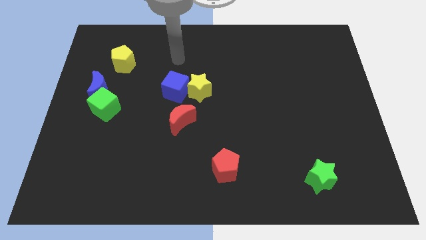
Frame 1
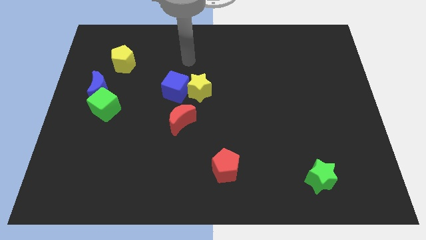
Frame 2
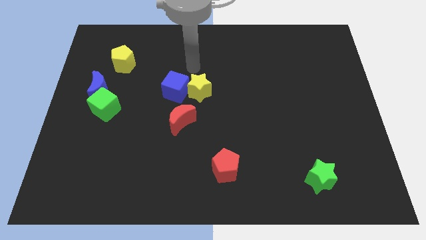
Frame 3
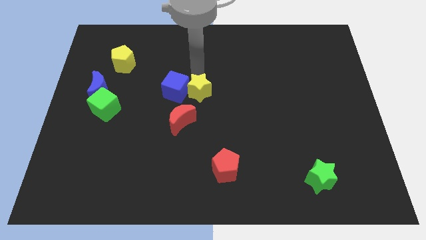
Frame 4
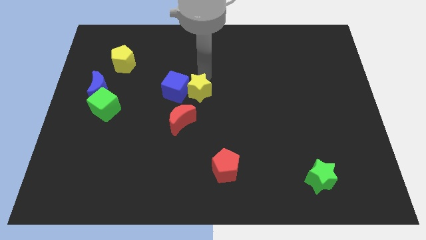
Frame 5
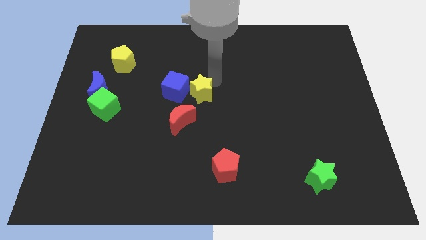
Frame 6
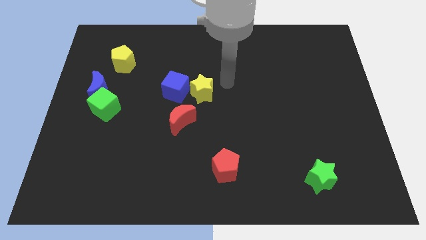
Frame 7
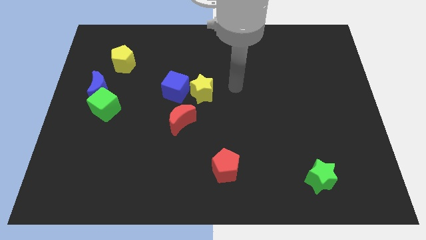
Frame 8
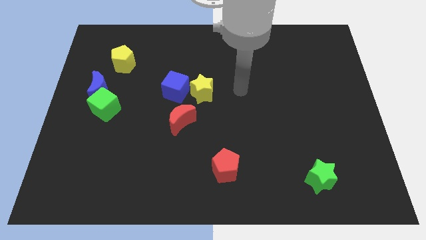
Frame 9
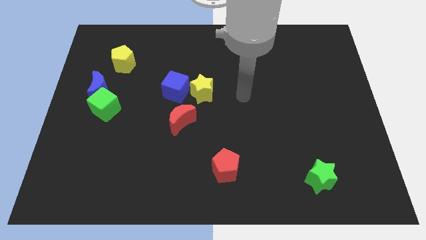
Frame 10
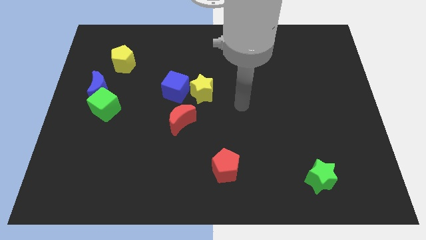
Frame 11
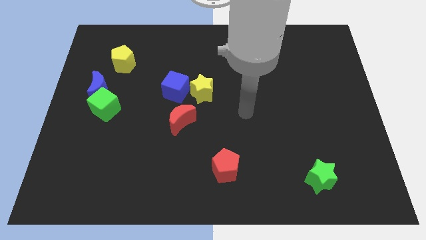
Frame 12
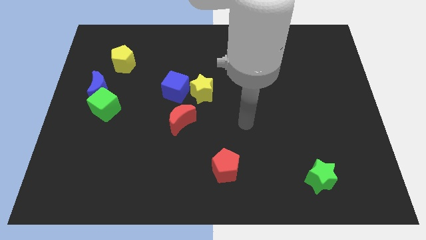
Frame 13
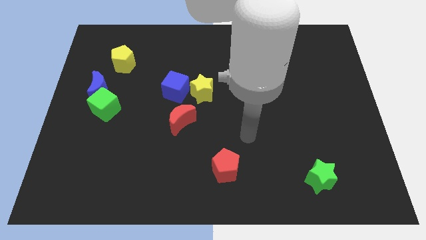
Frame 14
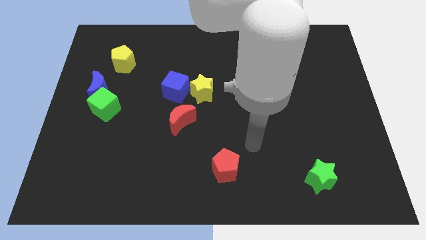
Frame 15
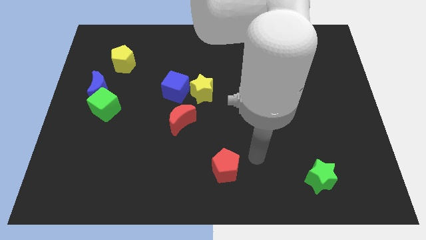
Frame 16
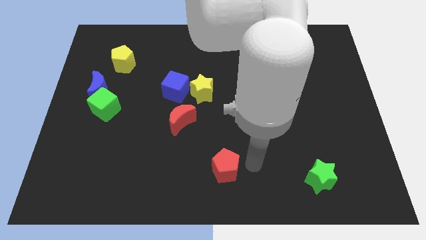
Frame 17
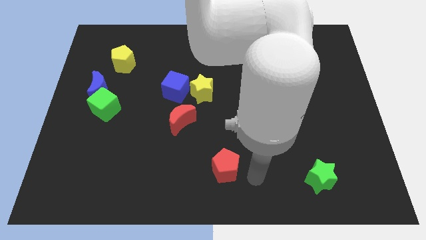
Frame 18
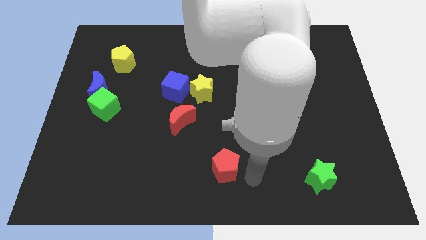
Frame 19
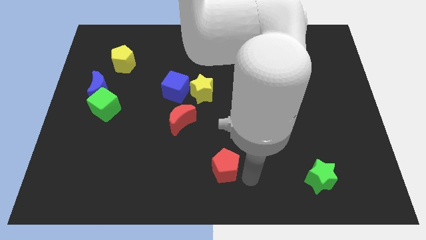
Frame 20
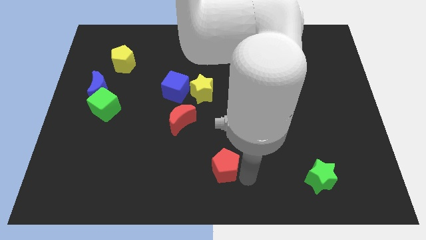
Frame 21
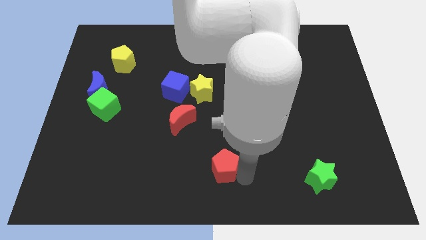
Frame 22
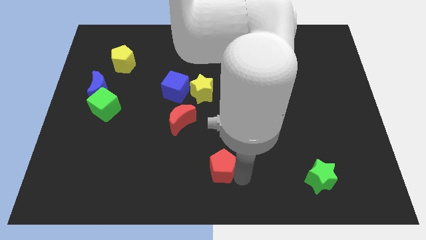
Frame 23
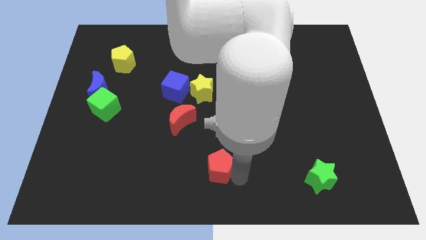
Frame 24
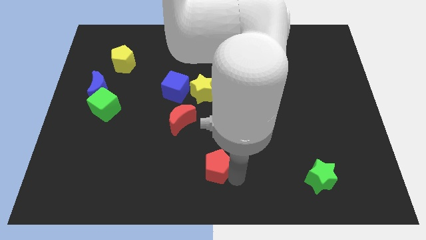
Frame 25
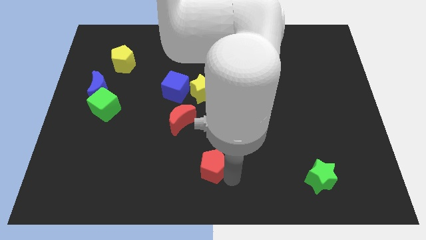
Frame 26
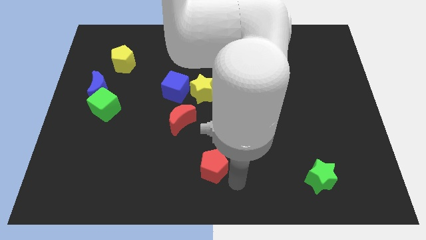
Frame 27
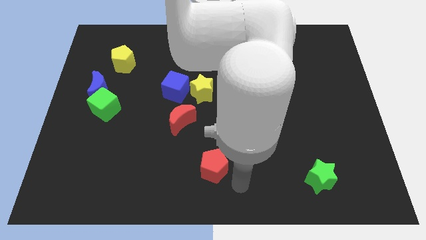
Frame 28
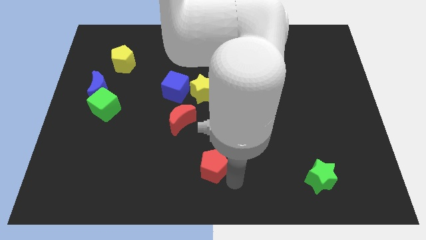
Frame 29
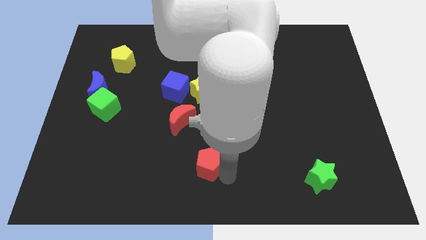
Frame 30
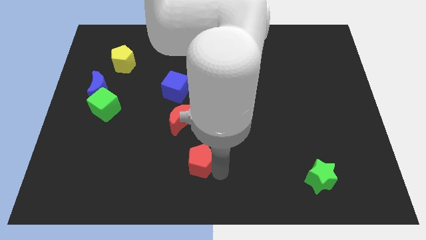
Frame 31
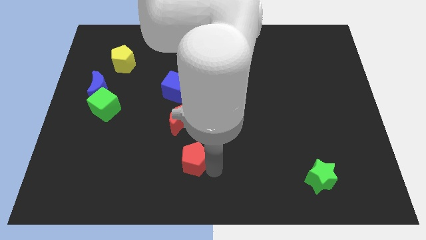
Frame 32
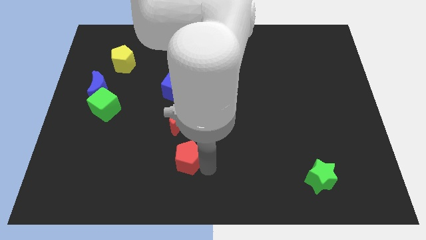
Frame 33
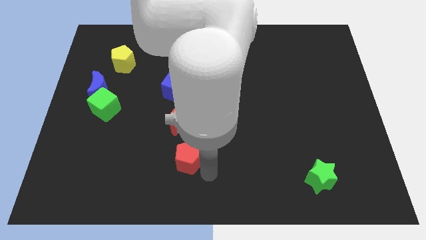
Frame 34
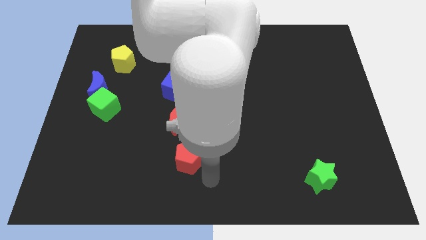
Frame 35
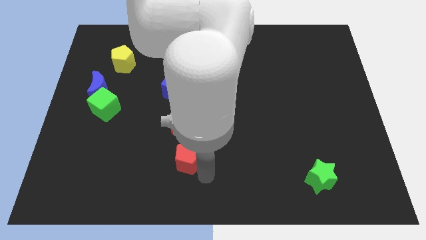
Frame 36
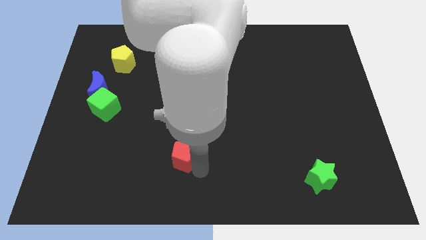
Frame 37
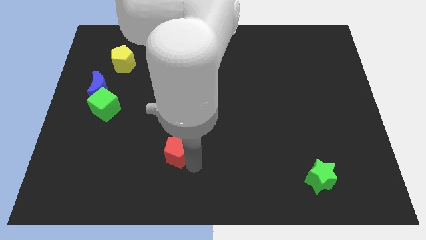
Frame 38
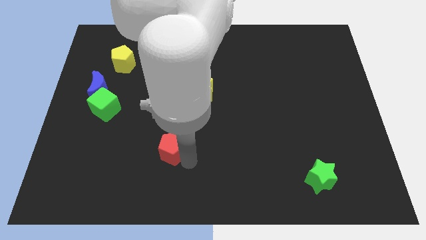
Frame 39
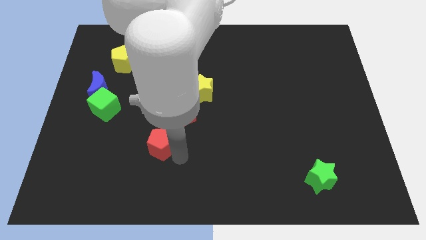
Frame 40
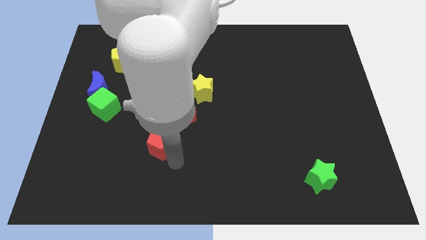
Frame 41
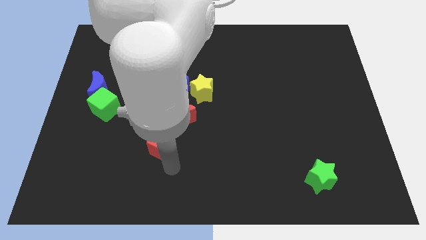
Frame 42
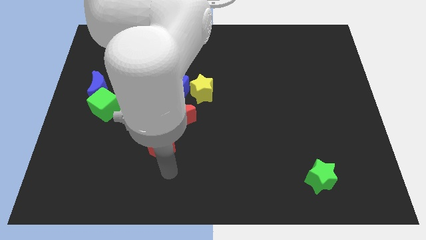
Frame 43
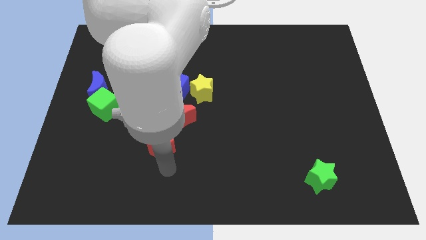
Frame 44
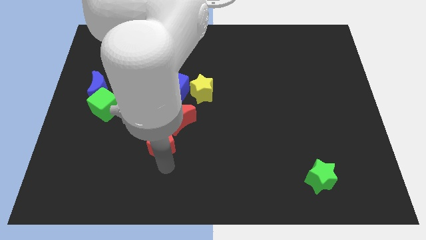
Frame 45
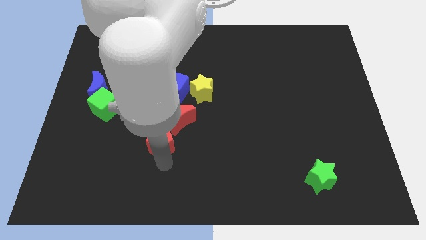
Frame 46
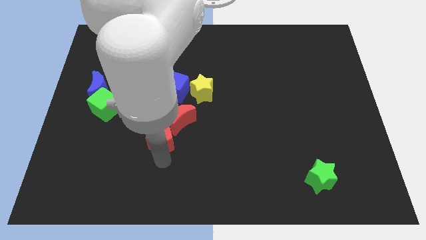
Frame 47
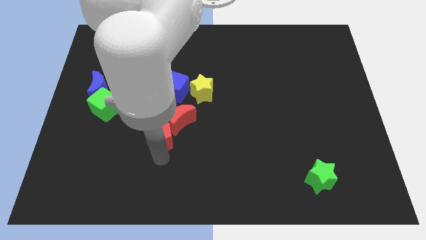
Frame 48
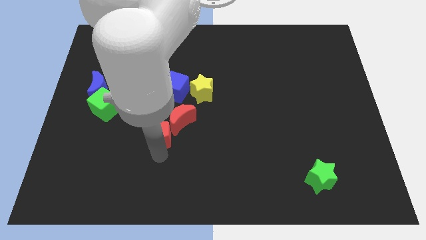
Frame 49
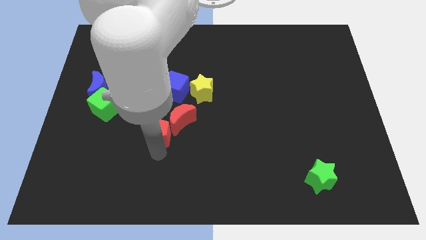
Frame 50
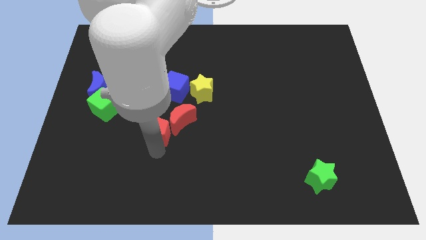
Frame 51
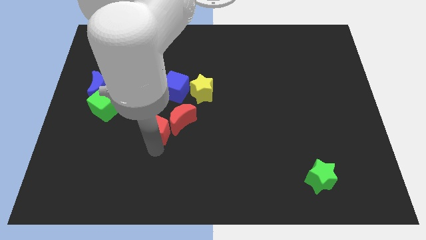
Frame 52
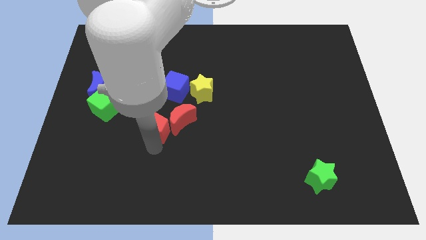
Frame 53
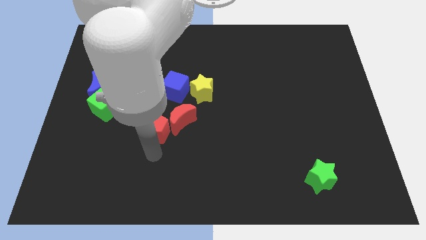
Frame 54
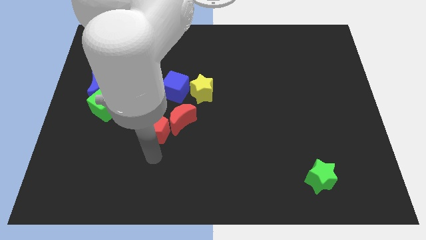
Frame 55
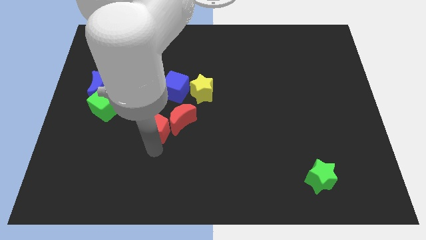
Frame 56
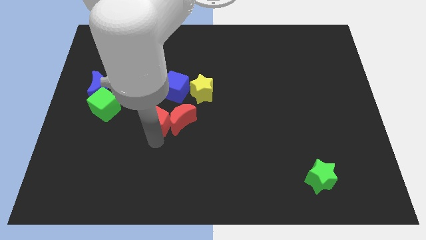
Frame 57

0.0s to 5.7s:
move the red pentagon diagonally up and to the left of the red moon
